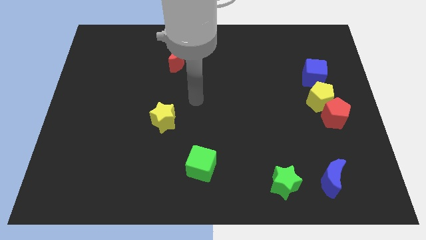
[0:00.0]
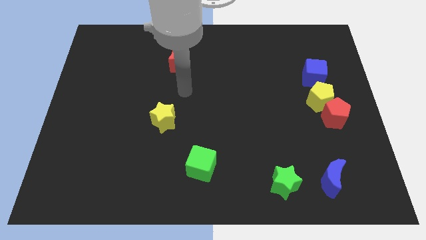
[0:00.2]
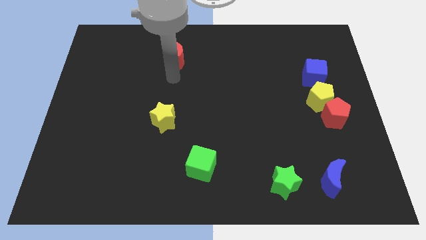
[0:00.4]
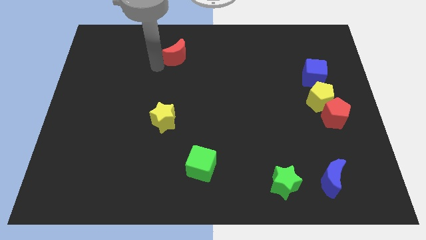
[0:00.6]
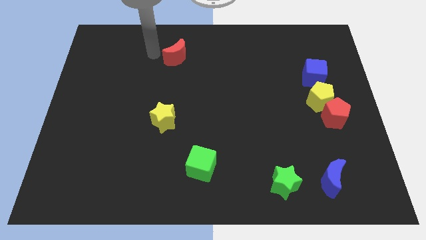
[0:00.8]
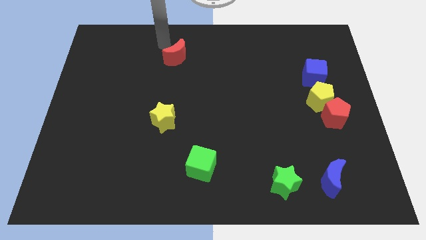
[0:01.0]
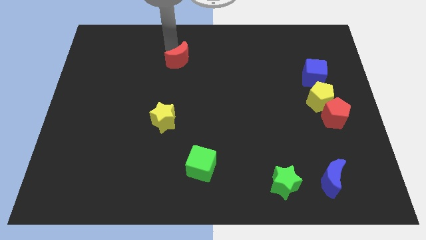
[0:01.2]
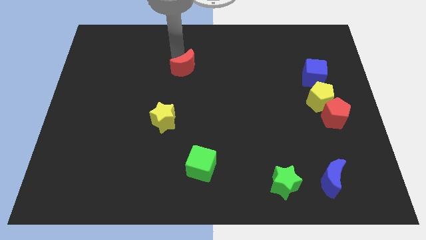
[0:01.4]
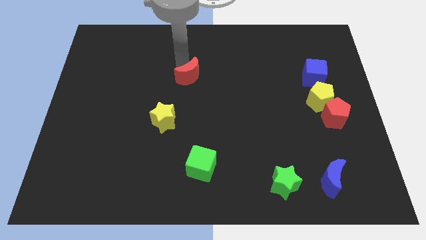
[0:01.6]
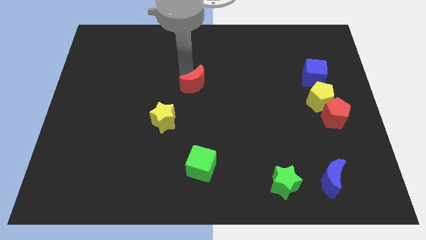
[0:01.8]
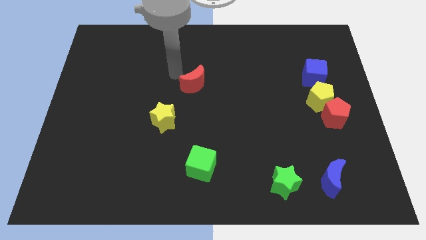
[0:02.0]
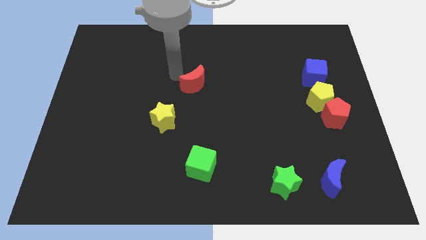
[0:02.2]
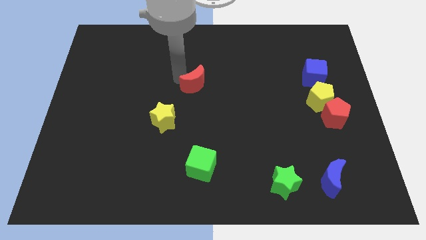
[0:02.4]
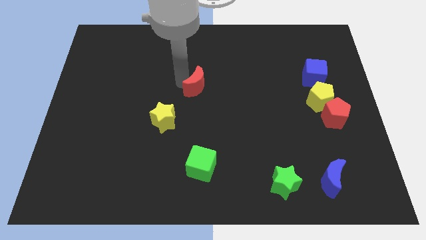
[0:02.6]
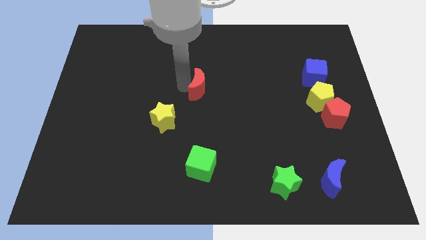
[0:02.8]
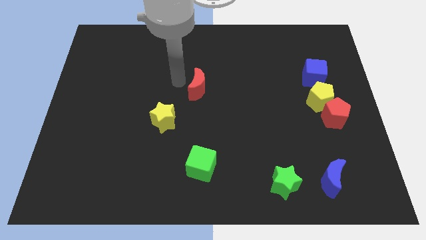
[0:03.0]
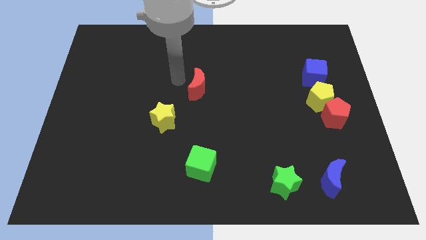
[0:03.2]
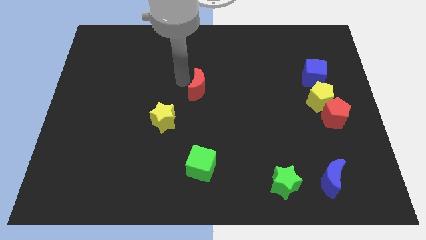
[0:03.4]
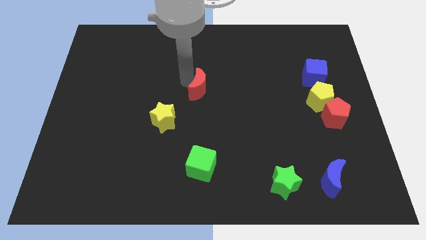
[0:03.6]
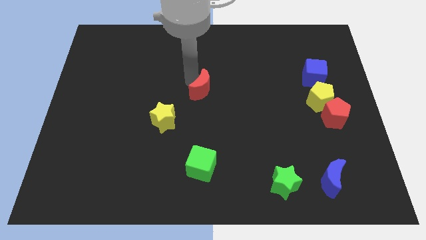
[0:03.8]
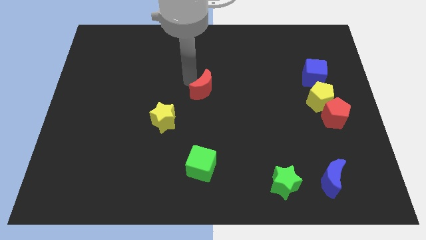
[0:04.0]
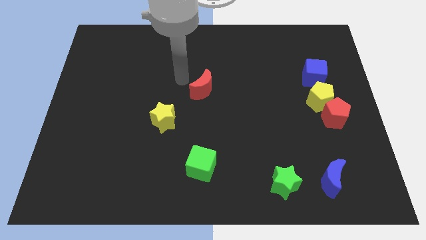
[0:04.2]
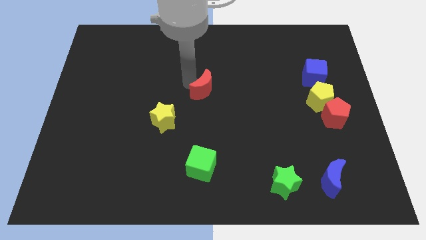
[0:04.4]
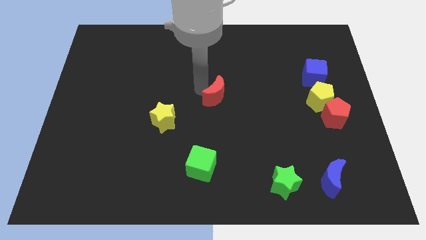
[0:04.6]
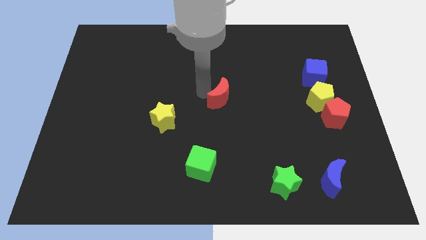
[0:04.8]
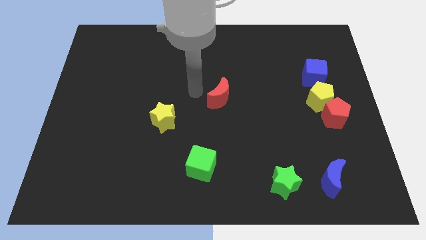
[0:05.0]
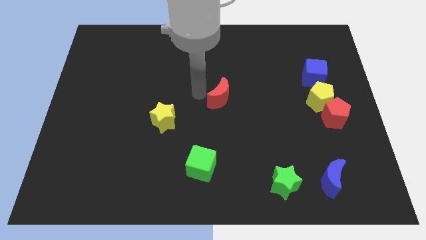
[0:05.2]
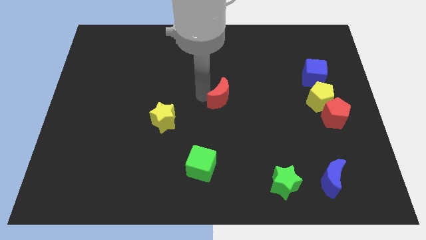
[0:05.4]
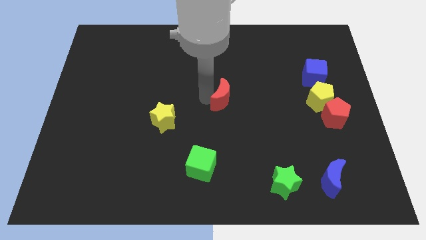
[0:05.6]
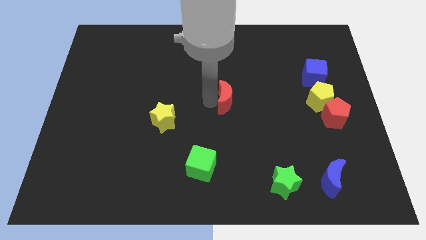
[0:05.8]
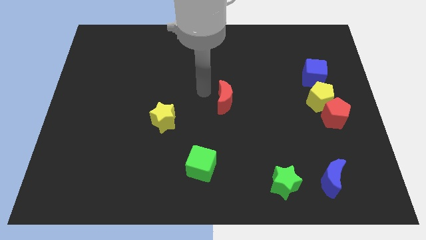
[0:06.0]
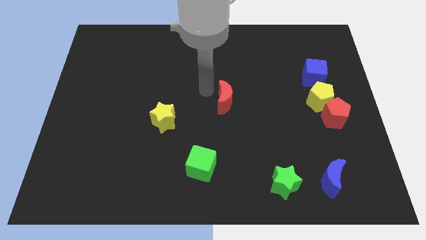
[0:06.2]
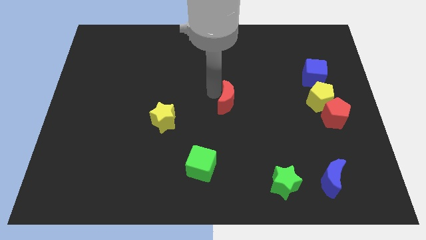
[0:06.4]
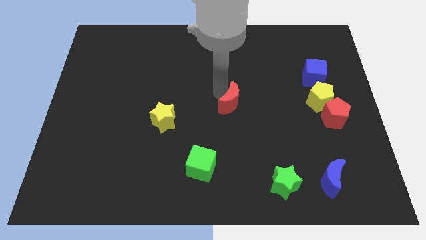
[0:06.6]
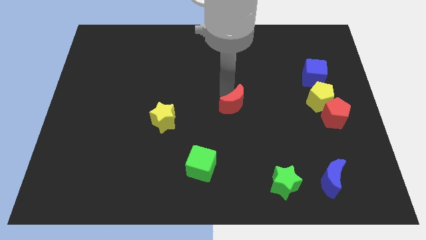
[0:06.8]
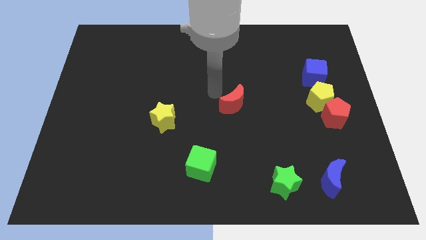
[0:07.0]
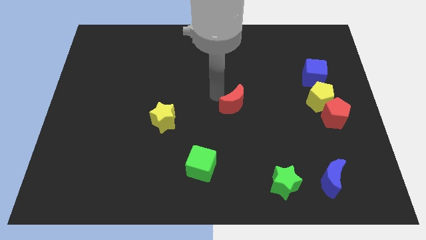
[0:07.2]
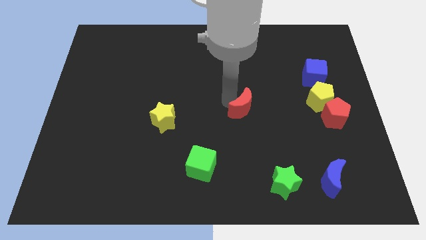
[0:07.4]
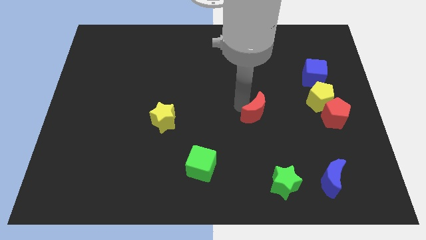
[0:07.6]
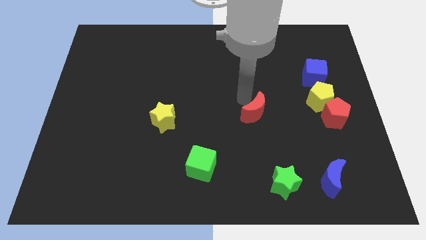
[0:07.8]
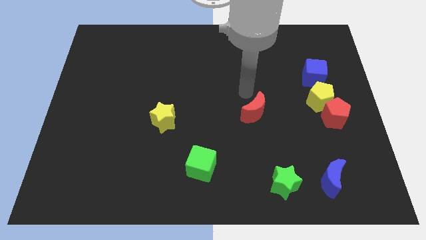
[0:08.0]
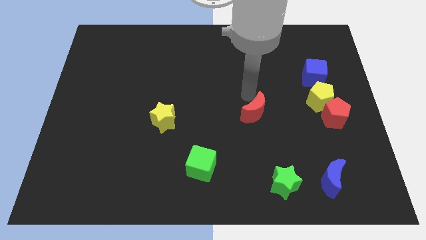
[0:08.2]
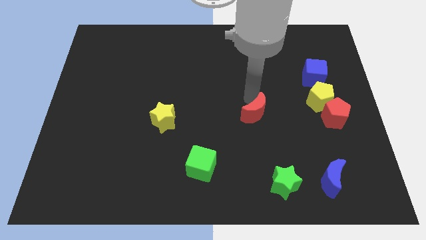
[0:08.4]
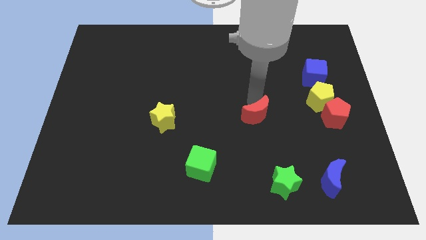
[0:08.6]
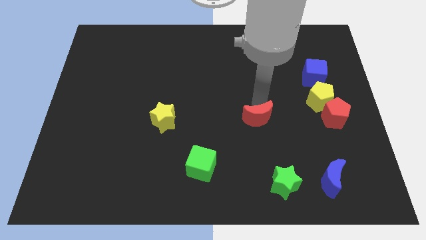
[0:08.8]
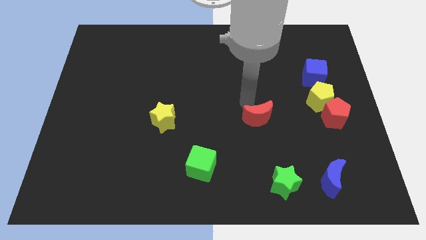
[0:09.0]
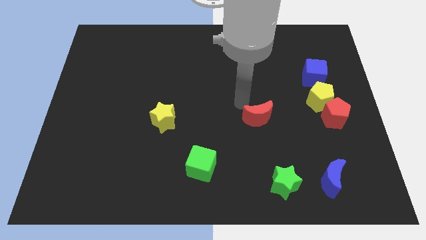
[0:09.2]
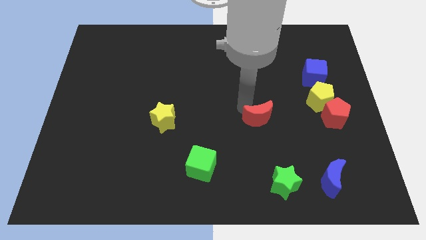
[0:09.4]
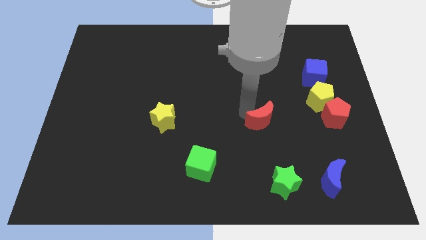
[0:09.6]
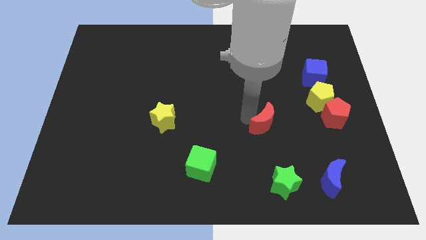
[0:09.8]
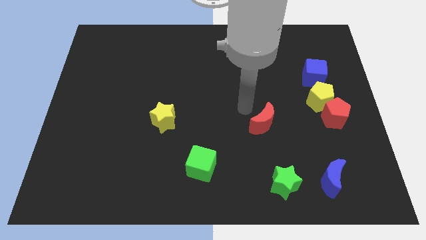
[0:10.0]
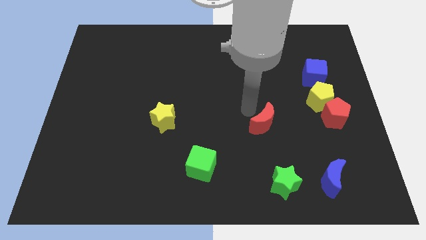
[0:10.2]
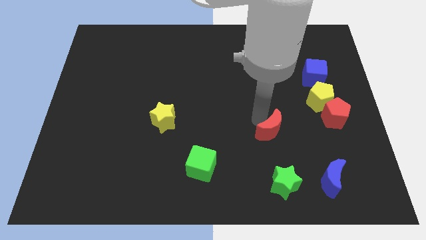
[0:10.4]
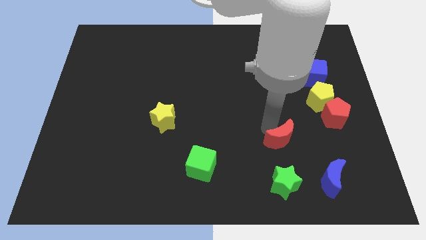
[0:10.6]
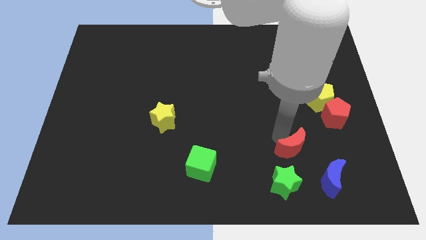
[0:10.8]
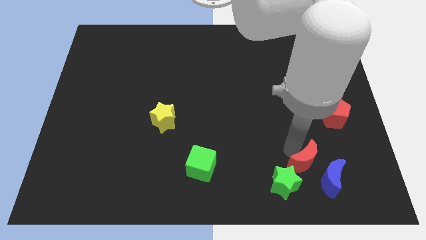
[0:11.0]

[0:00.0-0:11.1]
move the red moon to the blue moon

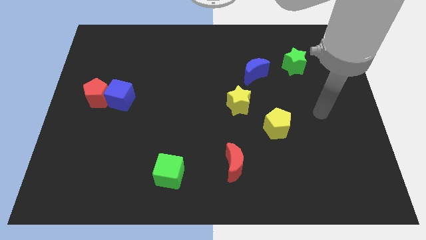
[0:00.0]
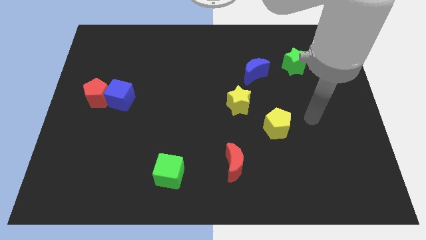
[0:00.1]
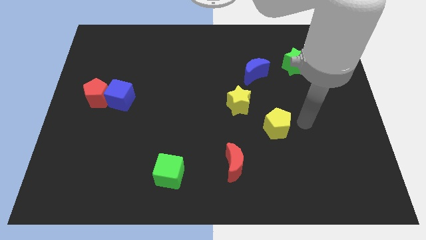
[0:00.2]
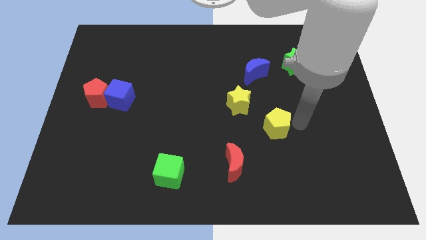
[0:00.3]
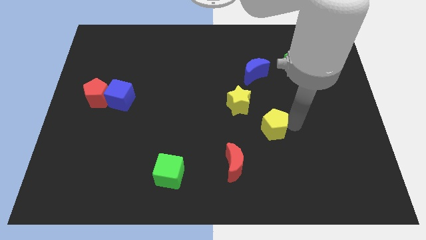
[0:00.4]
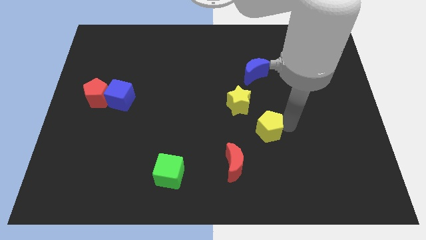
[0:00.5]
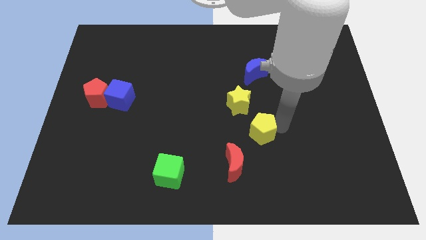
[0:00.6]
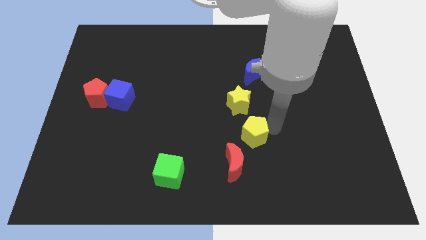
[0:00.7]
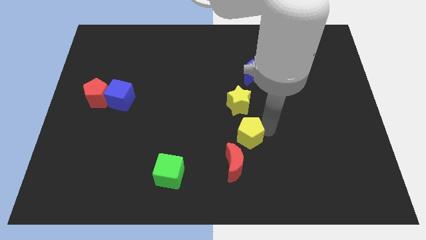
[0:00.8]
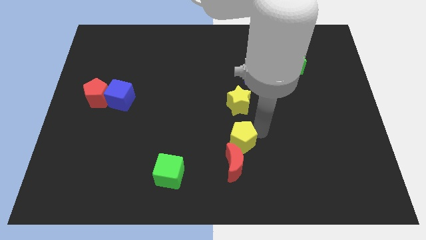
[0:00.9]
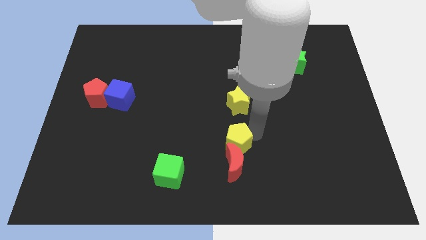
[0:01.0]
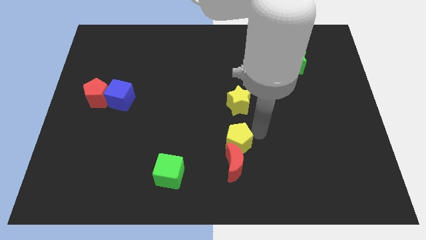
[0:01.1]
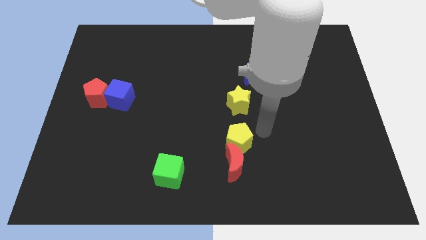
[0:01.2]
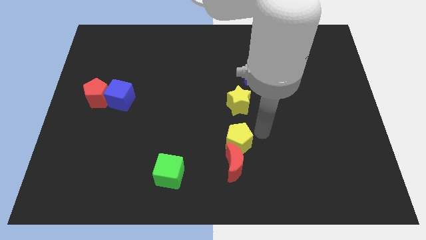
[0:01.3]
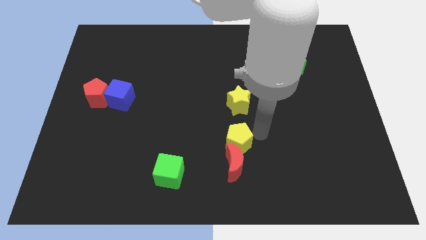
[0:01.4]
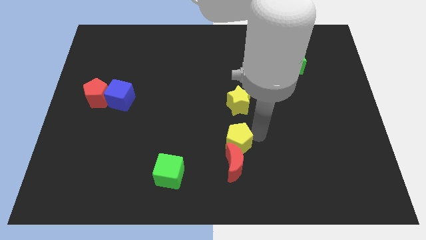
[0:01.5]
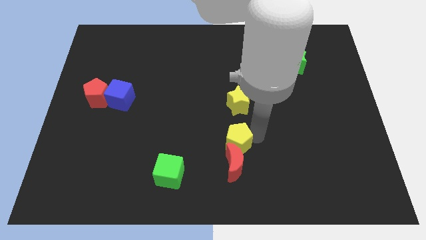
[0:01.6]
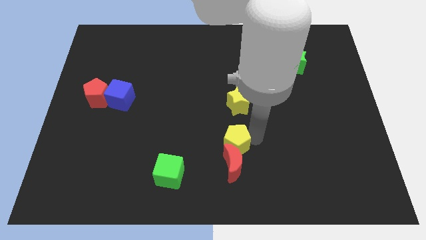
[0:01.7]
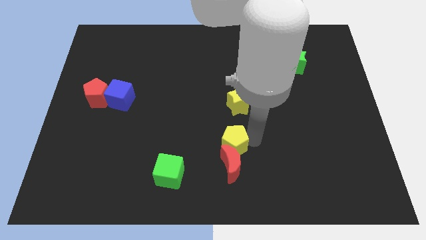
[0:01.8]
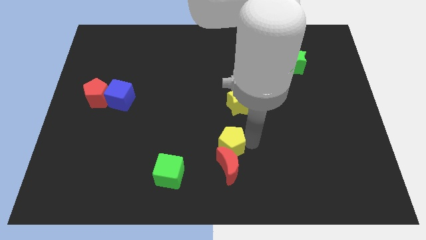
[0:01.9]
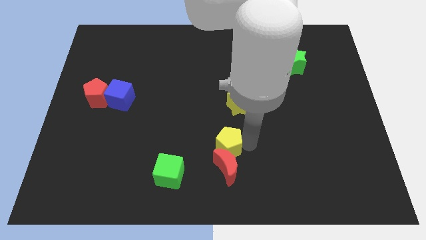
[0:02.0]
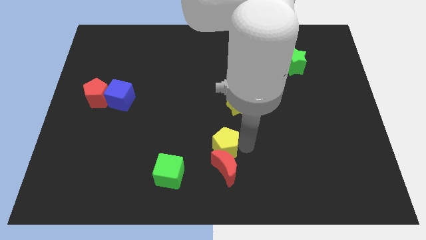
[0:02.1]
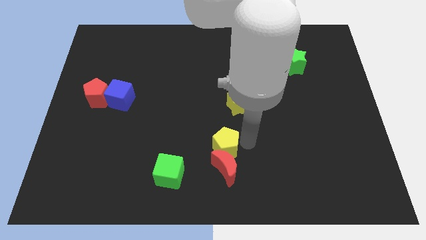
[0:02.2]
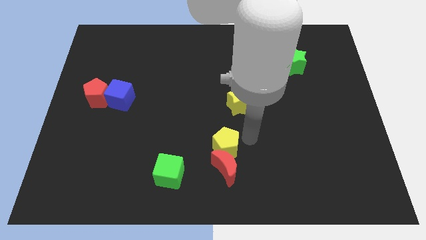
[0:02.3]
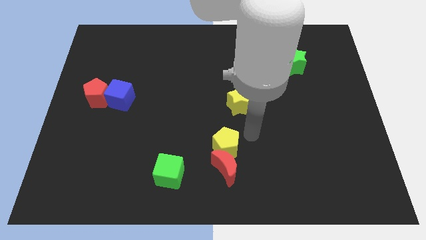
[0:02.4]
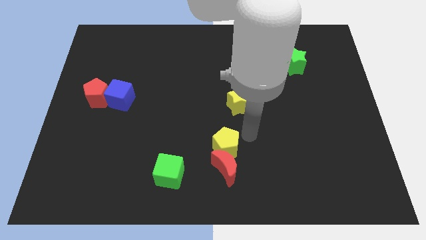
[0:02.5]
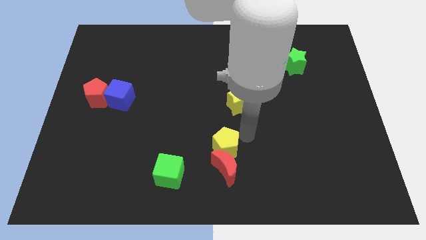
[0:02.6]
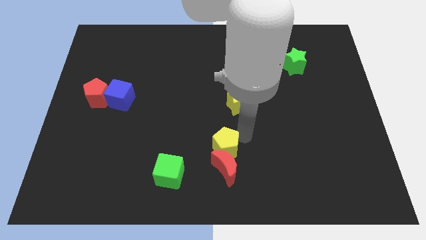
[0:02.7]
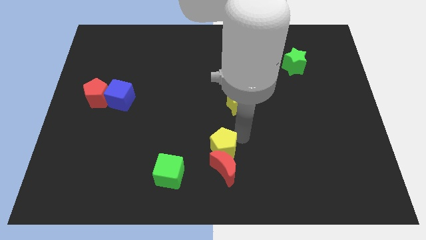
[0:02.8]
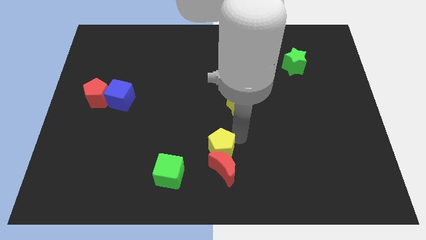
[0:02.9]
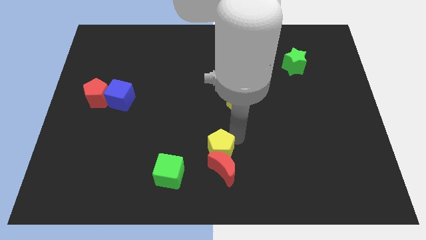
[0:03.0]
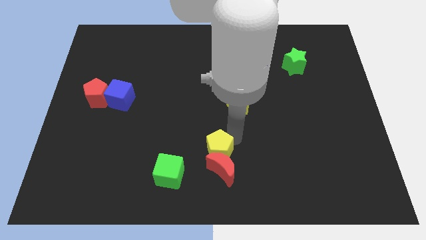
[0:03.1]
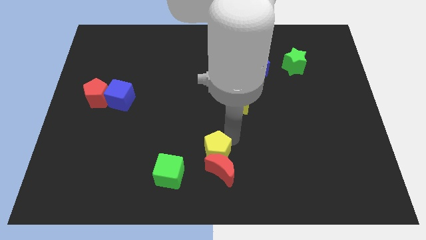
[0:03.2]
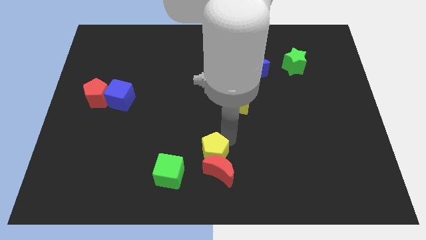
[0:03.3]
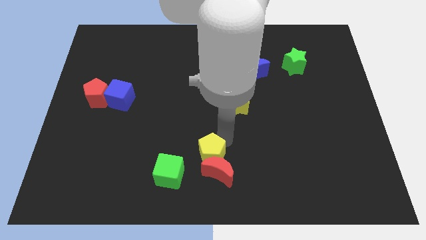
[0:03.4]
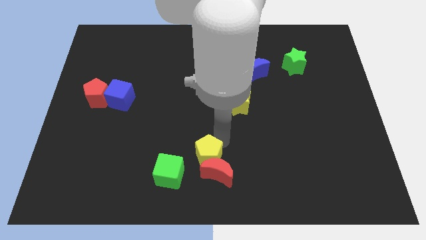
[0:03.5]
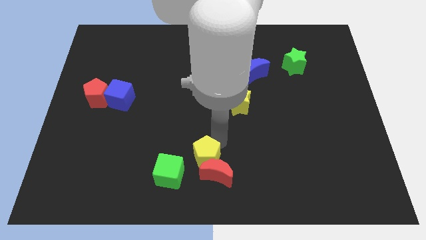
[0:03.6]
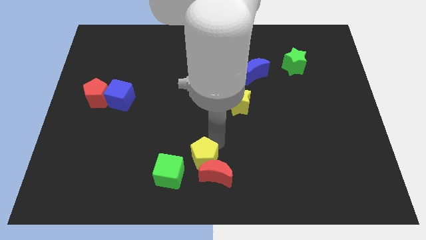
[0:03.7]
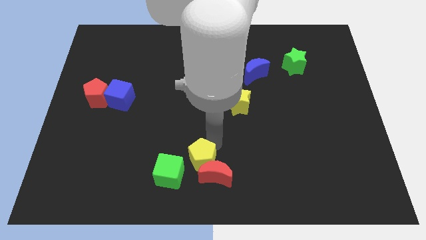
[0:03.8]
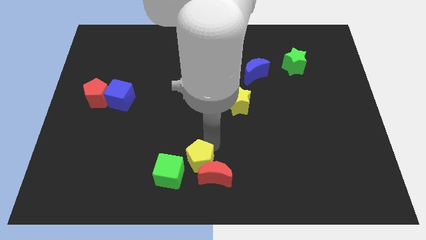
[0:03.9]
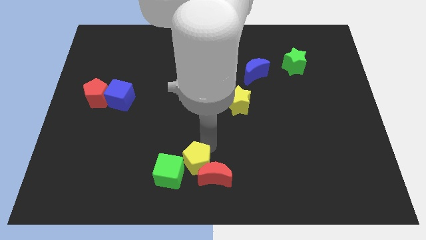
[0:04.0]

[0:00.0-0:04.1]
push the yellow pentagon next to the green cube
